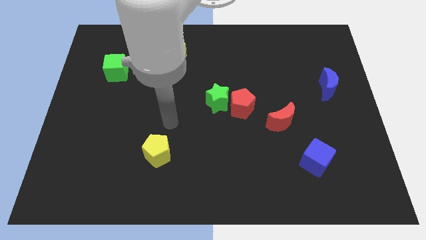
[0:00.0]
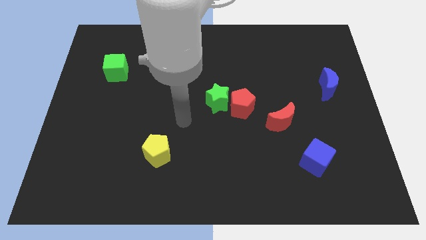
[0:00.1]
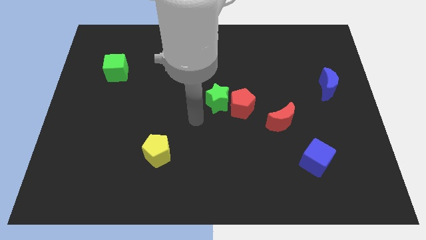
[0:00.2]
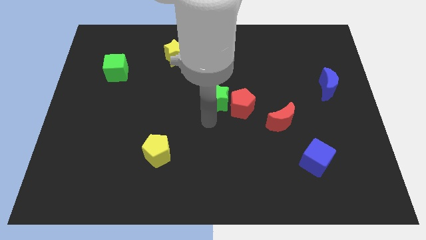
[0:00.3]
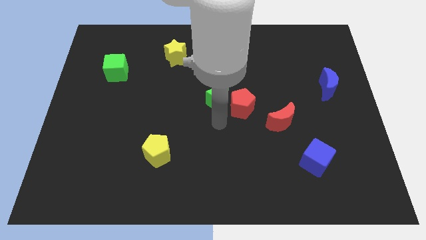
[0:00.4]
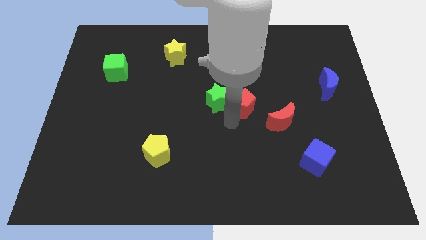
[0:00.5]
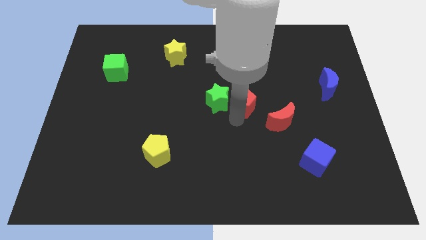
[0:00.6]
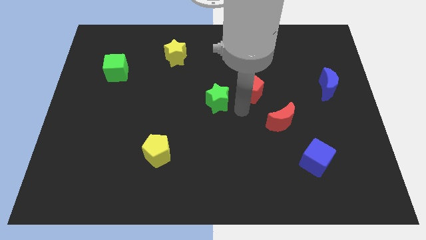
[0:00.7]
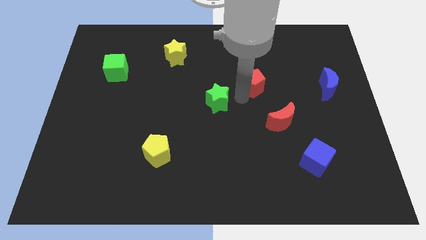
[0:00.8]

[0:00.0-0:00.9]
move the green star away from the red pentagon

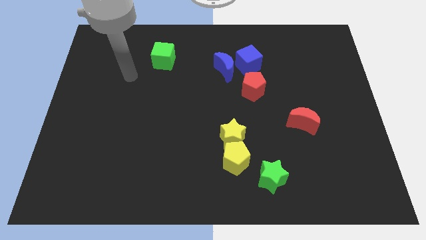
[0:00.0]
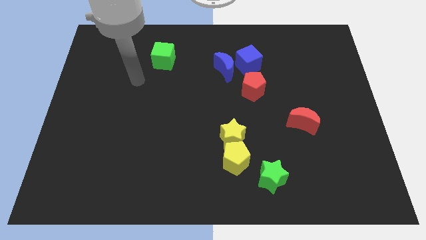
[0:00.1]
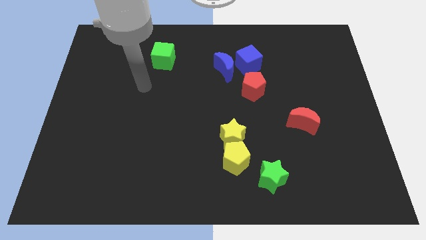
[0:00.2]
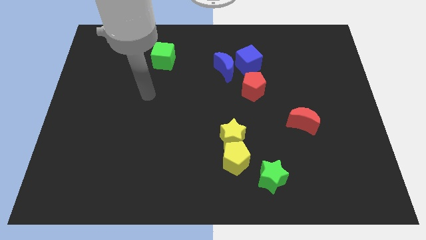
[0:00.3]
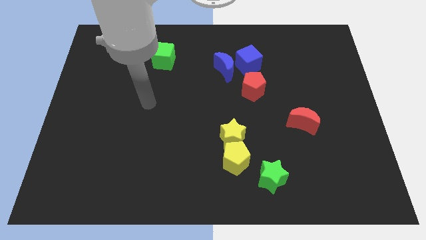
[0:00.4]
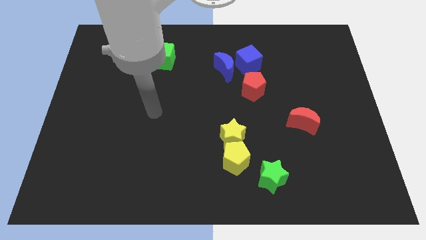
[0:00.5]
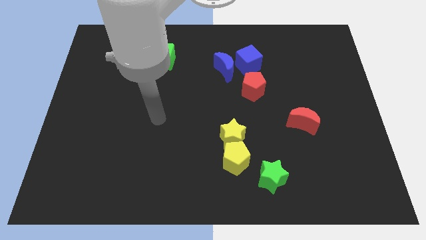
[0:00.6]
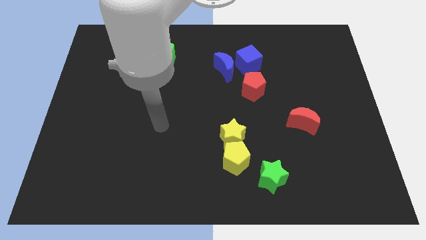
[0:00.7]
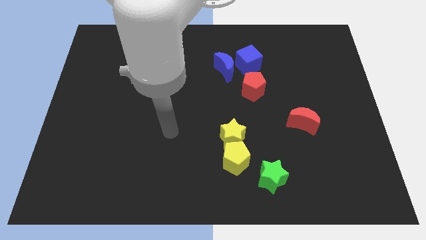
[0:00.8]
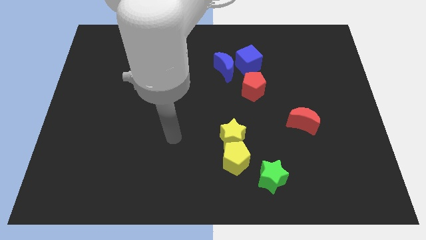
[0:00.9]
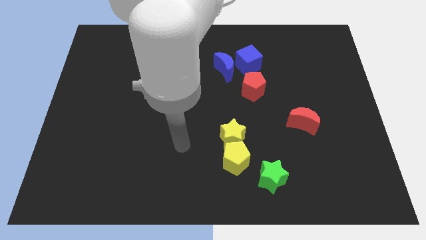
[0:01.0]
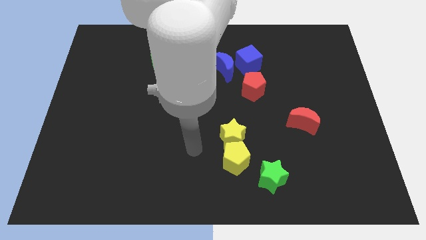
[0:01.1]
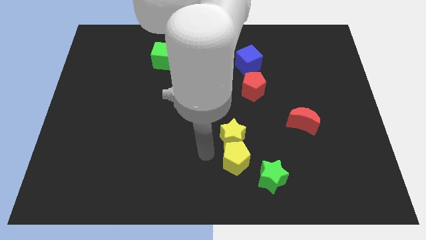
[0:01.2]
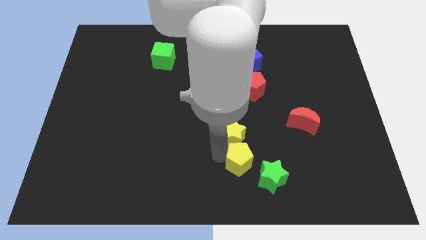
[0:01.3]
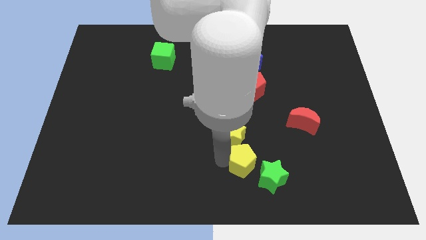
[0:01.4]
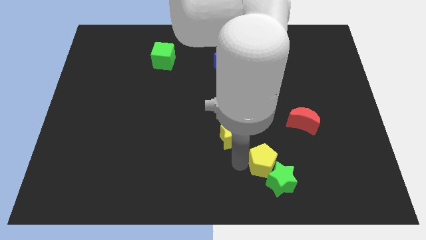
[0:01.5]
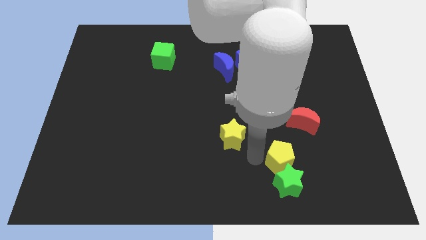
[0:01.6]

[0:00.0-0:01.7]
separate the yellow star from the yellow pentagon

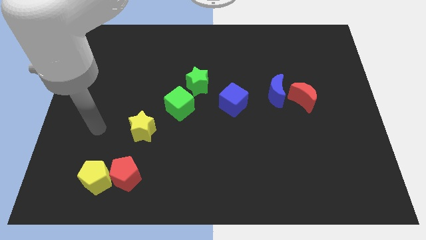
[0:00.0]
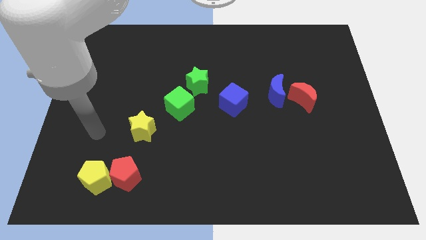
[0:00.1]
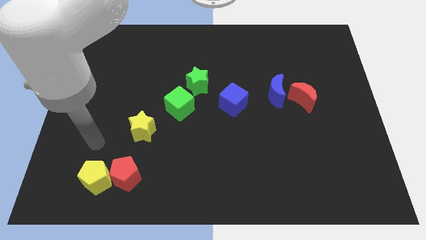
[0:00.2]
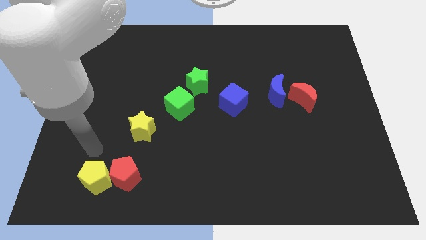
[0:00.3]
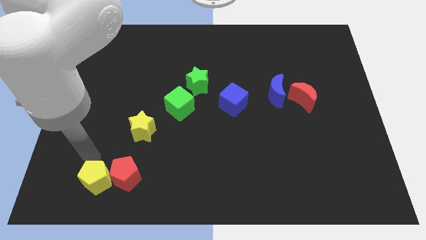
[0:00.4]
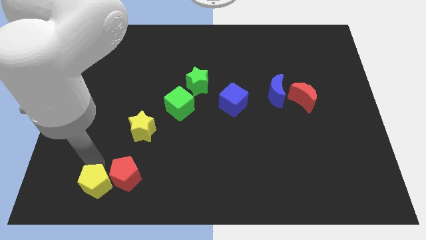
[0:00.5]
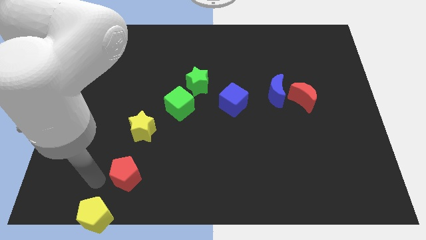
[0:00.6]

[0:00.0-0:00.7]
separate the red pentagon from the yellow pentagon

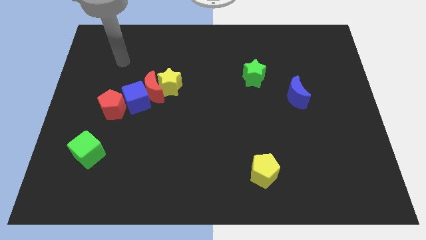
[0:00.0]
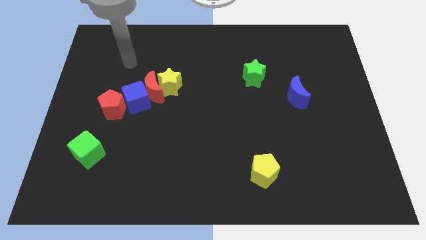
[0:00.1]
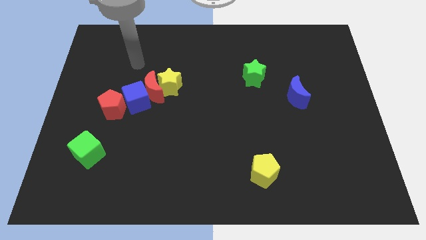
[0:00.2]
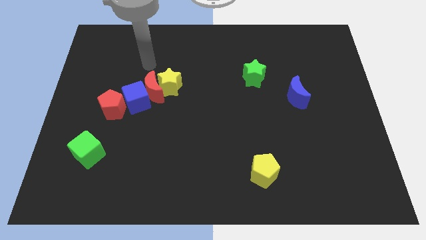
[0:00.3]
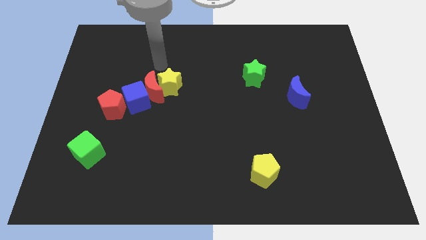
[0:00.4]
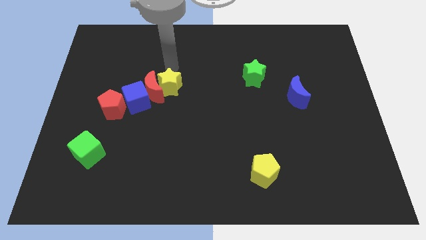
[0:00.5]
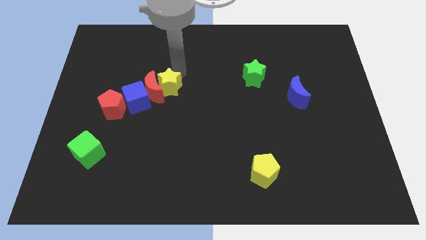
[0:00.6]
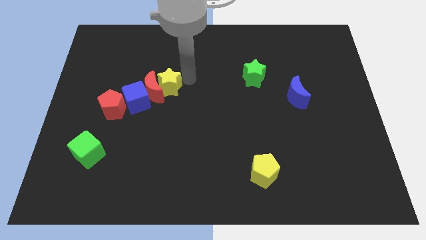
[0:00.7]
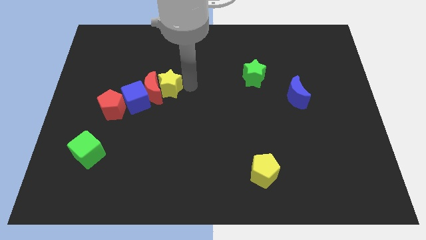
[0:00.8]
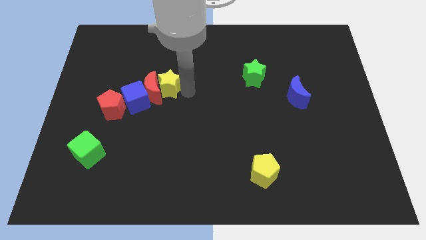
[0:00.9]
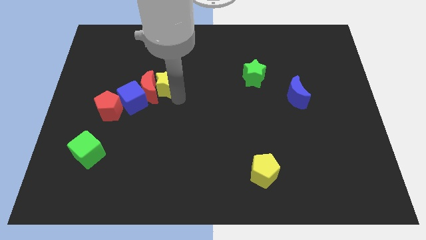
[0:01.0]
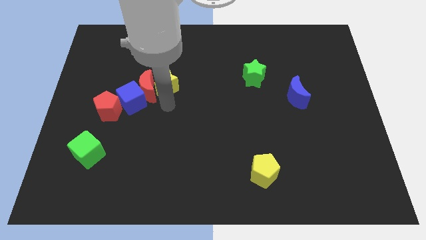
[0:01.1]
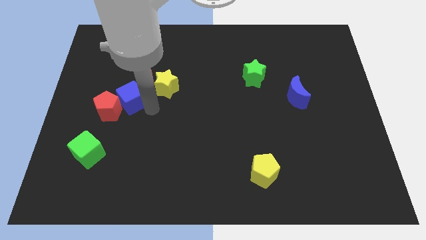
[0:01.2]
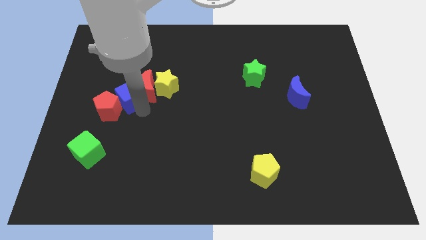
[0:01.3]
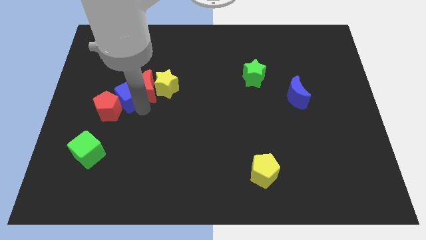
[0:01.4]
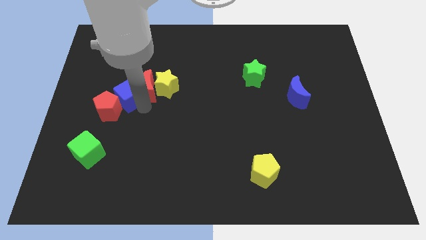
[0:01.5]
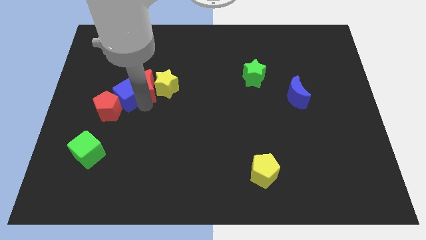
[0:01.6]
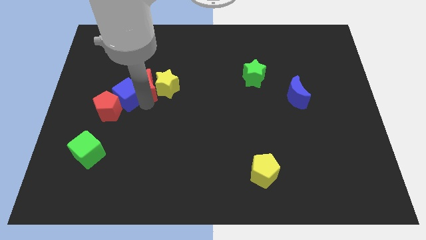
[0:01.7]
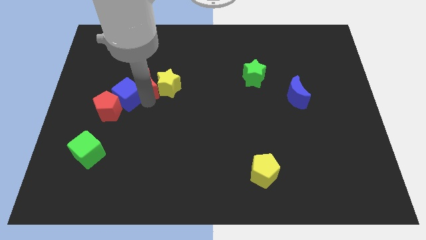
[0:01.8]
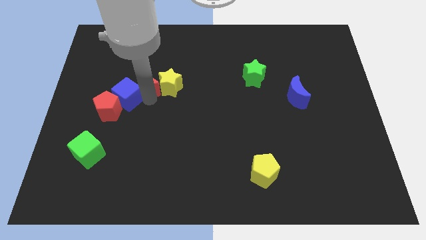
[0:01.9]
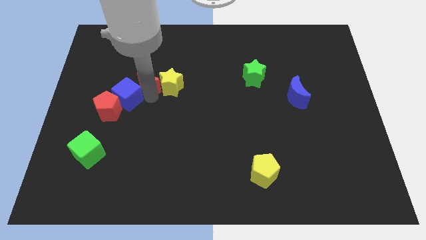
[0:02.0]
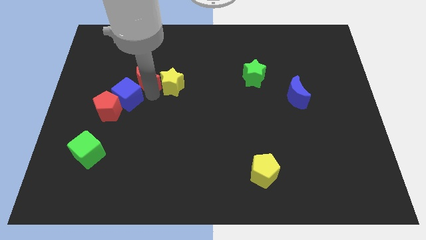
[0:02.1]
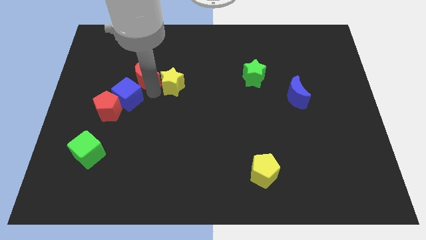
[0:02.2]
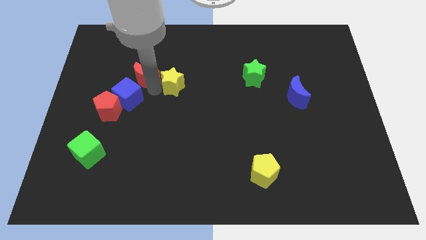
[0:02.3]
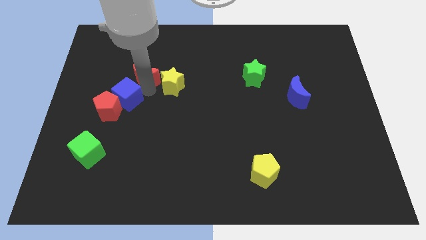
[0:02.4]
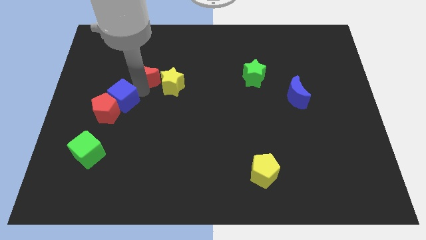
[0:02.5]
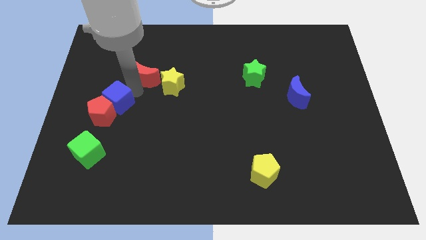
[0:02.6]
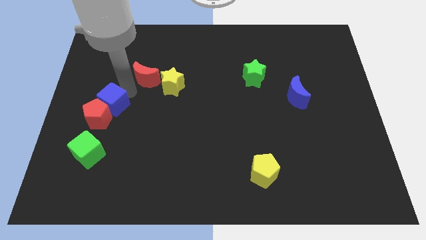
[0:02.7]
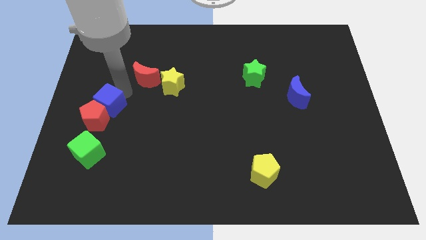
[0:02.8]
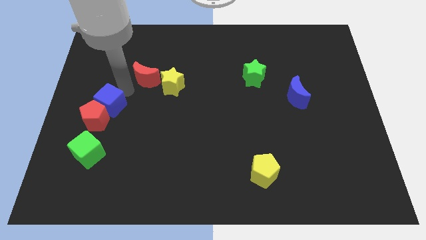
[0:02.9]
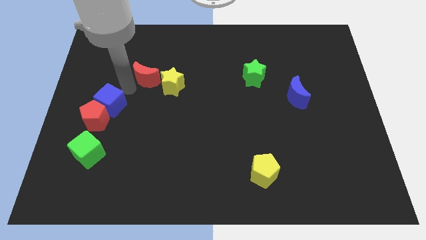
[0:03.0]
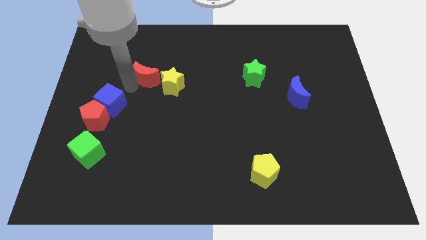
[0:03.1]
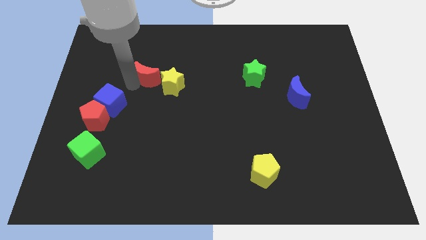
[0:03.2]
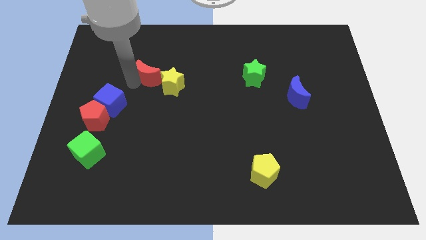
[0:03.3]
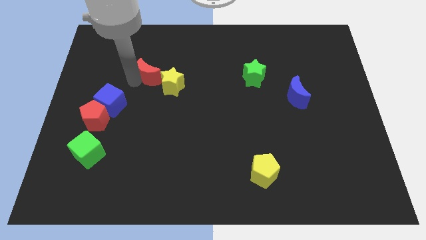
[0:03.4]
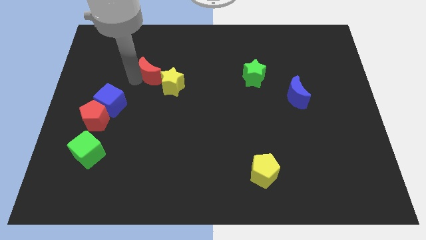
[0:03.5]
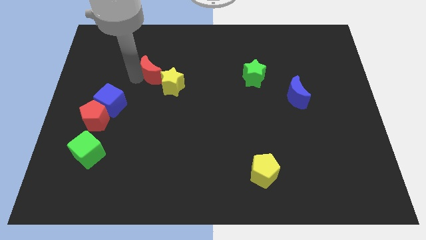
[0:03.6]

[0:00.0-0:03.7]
separate the red moon from the yellow star, blue cube, and red pentagon

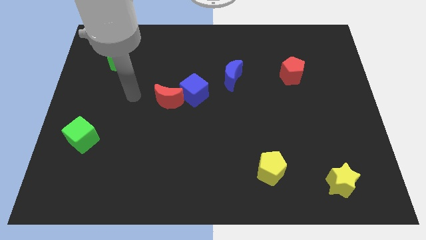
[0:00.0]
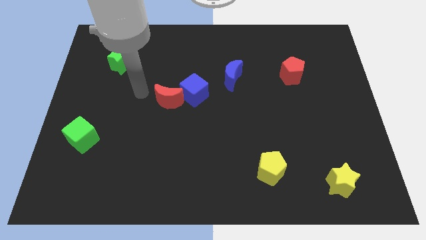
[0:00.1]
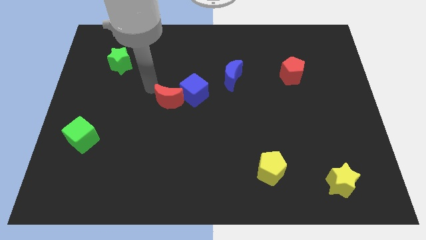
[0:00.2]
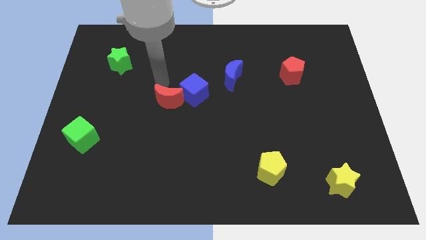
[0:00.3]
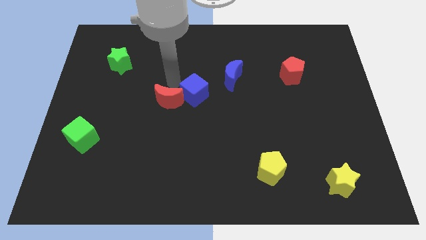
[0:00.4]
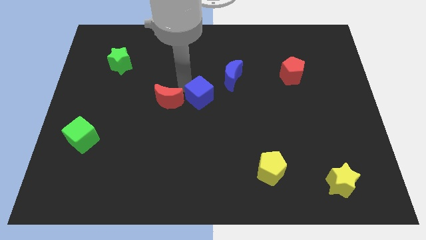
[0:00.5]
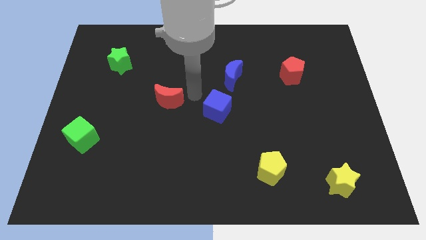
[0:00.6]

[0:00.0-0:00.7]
separate the red moon from the blue cube

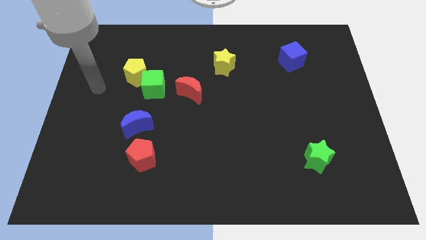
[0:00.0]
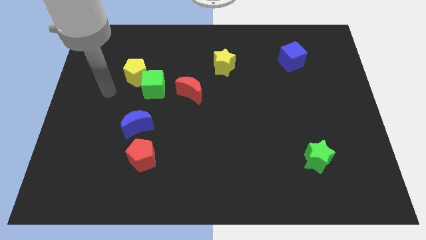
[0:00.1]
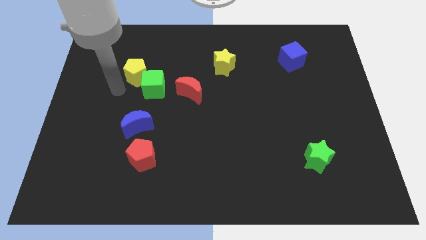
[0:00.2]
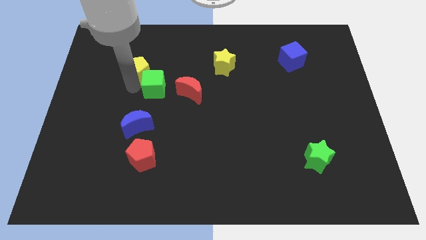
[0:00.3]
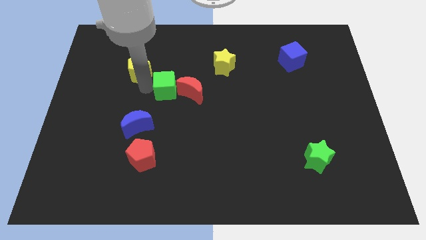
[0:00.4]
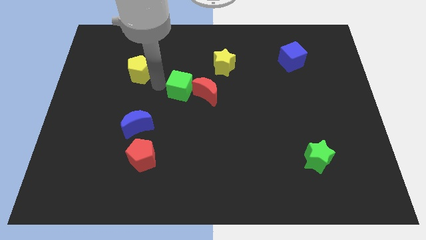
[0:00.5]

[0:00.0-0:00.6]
pull the yellow pentagon apart from the green cube

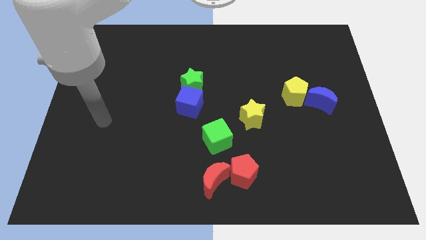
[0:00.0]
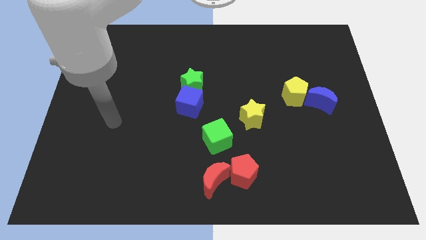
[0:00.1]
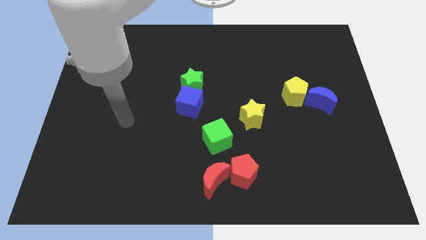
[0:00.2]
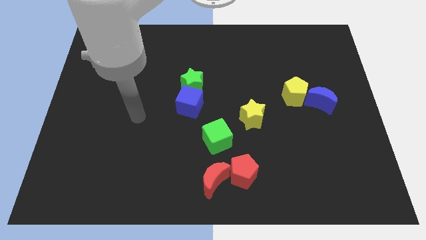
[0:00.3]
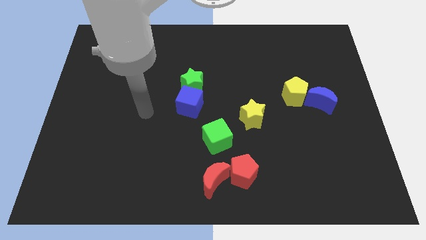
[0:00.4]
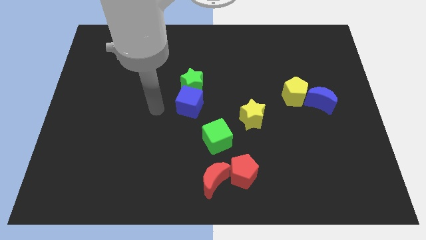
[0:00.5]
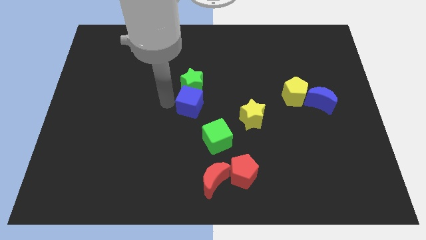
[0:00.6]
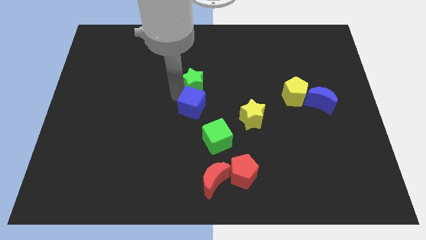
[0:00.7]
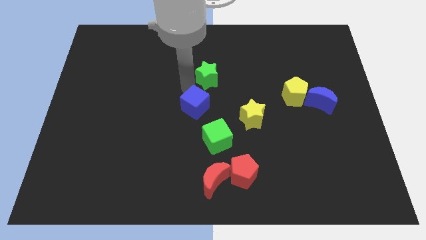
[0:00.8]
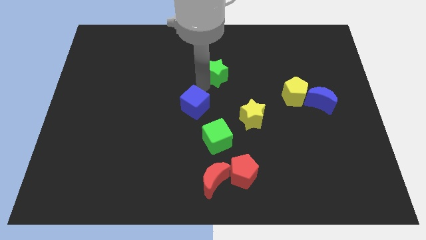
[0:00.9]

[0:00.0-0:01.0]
separate the blue cube from the green star
